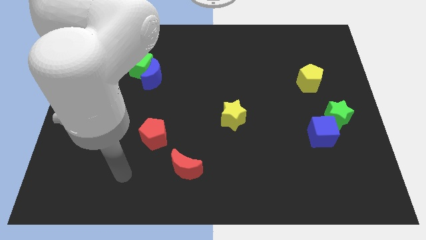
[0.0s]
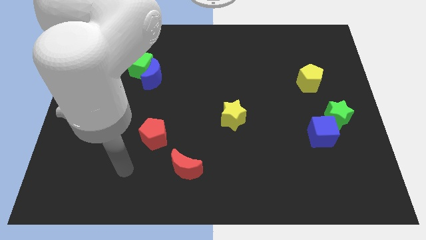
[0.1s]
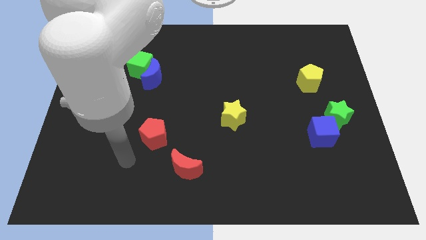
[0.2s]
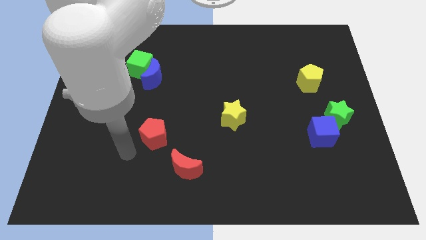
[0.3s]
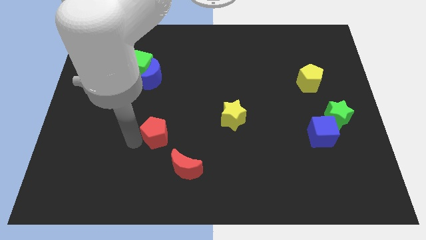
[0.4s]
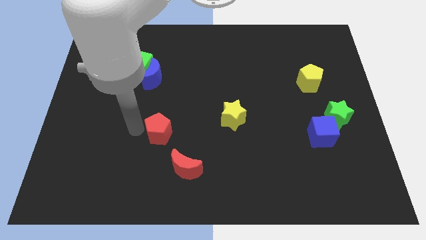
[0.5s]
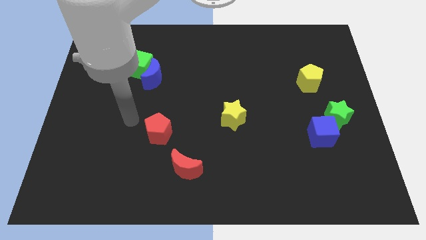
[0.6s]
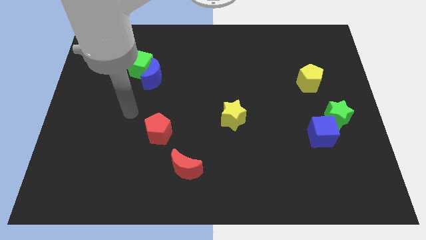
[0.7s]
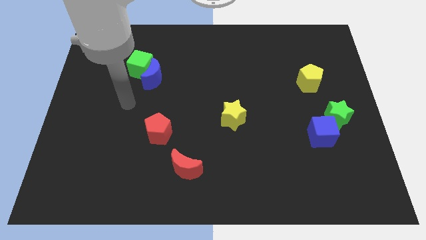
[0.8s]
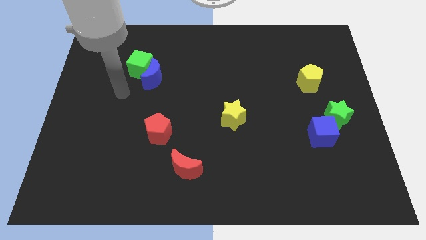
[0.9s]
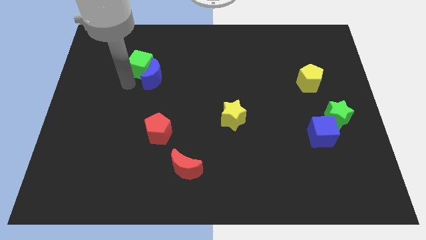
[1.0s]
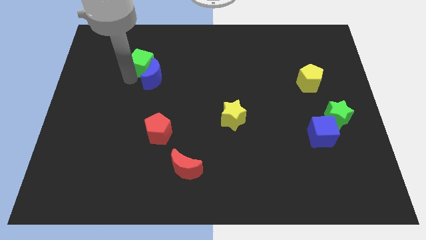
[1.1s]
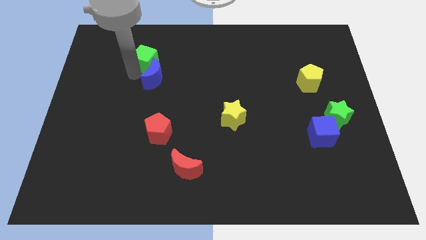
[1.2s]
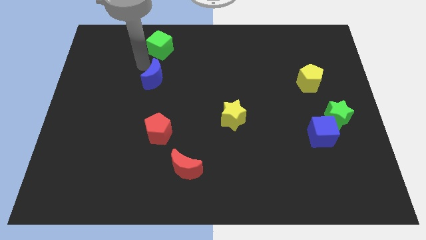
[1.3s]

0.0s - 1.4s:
move the blue moon away from the green cube

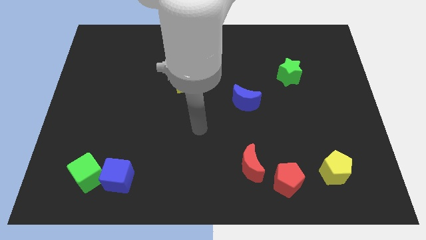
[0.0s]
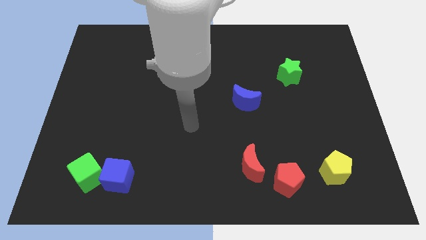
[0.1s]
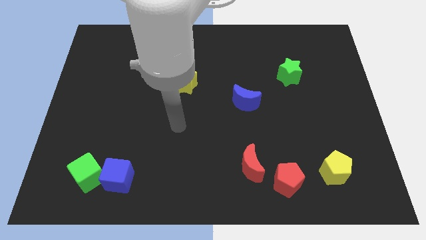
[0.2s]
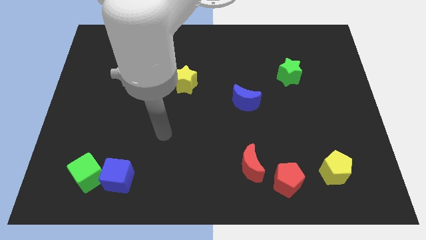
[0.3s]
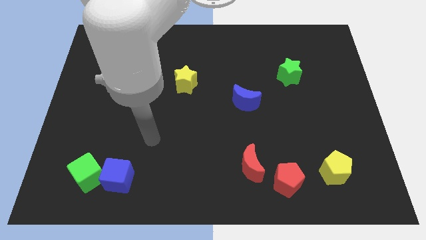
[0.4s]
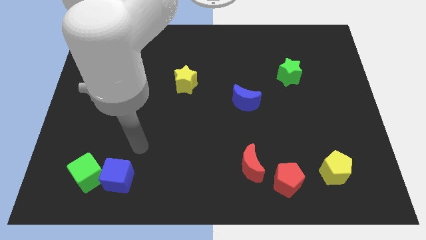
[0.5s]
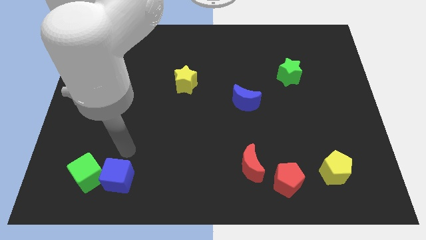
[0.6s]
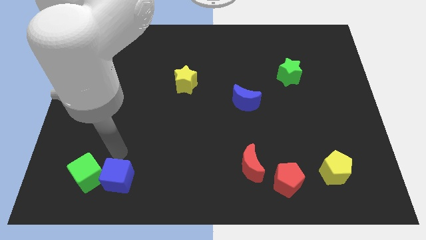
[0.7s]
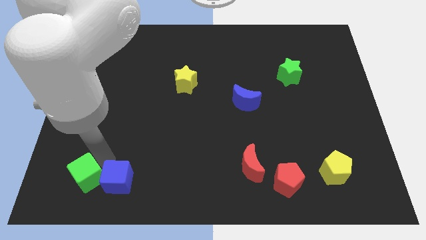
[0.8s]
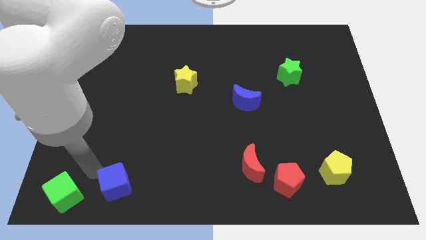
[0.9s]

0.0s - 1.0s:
move the blue cube away from the green cube

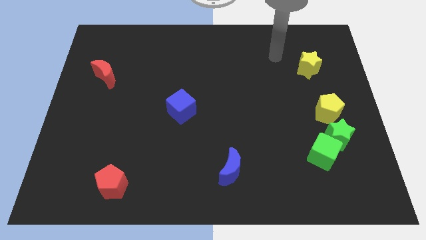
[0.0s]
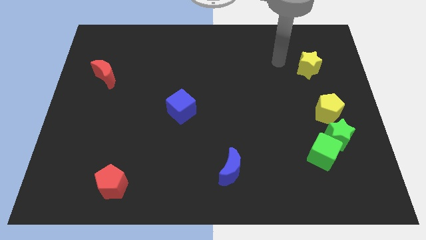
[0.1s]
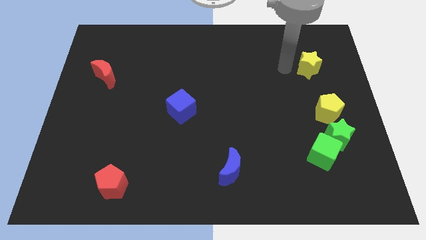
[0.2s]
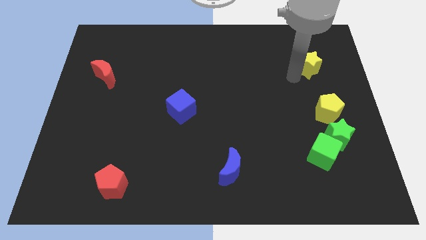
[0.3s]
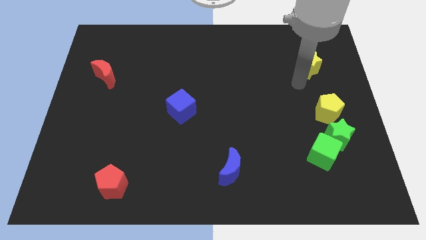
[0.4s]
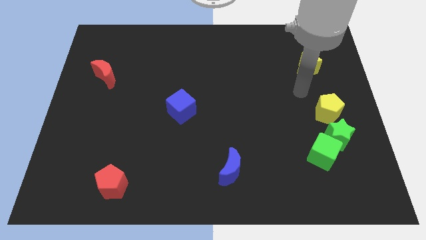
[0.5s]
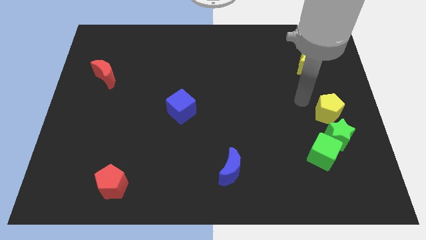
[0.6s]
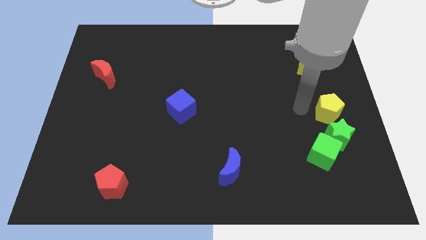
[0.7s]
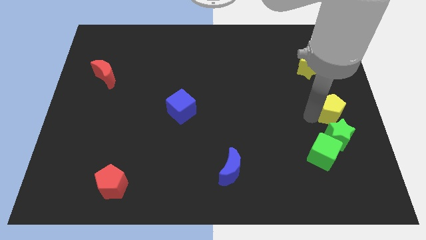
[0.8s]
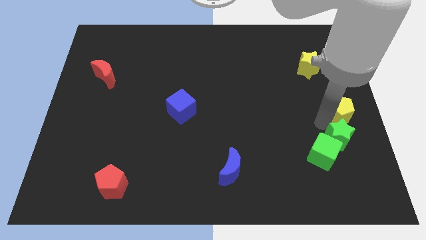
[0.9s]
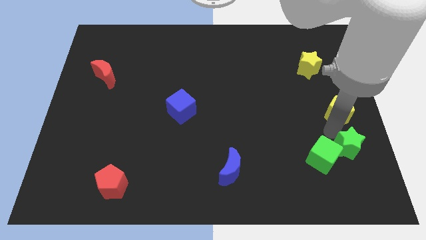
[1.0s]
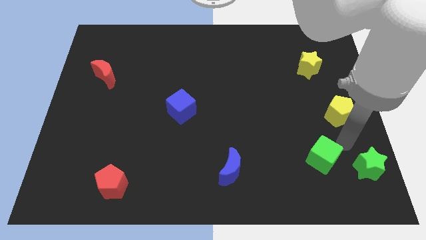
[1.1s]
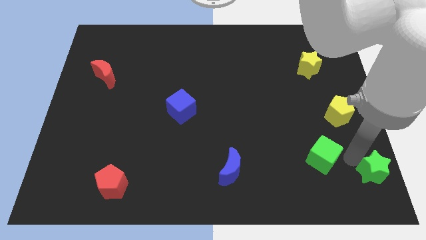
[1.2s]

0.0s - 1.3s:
move the green cube away from the green star

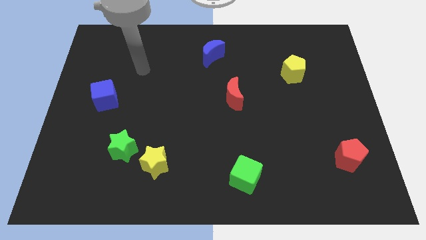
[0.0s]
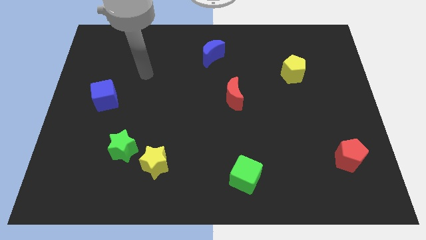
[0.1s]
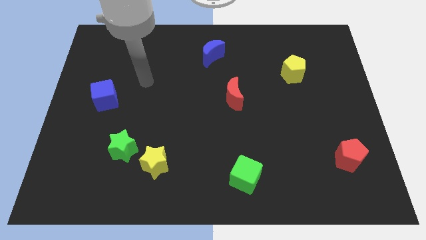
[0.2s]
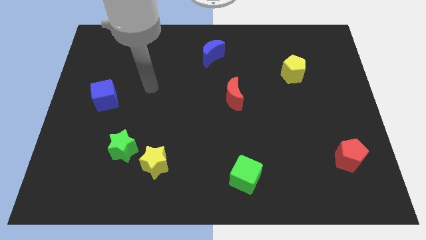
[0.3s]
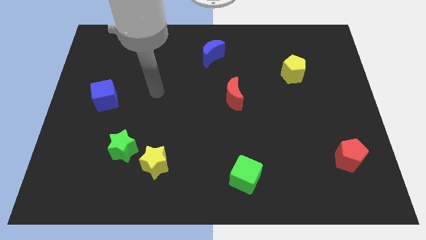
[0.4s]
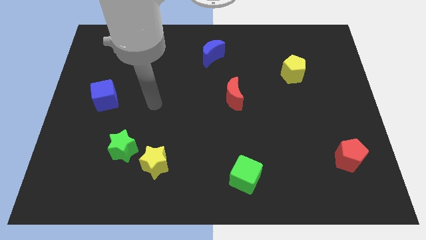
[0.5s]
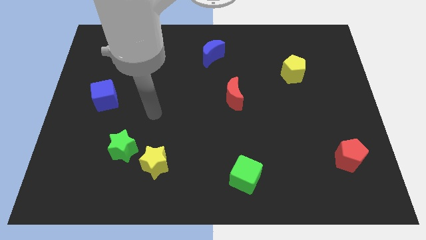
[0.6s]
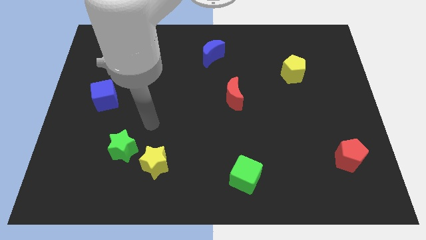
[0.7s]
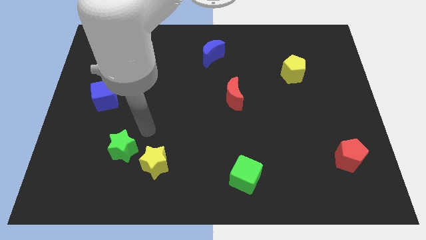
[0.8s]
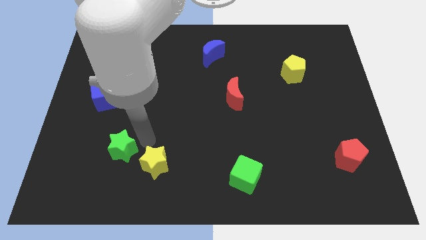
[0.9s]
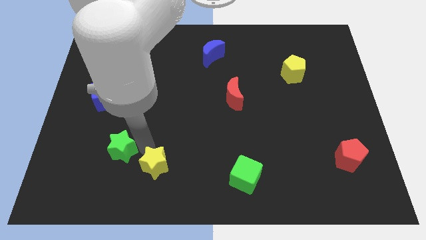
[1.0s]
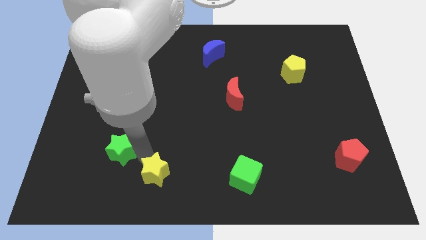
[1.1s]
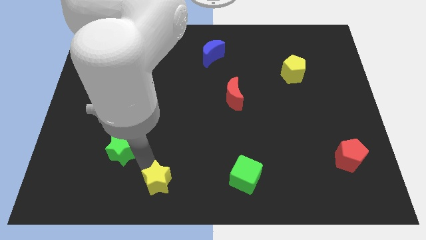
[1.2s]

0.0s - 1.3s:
pull the green star apart from the yellow star

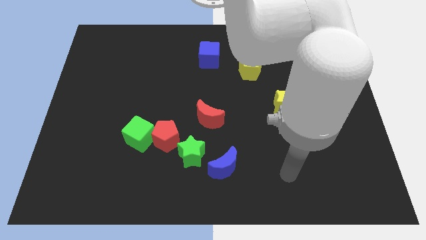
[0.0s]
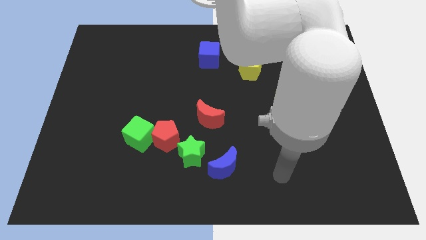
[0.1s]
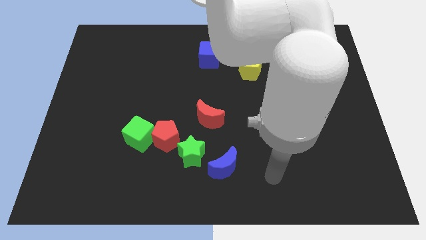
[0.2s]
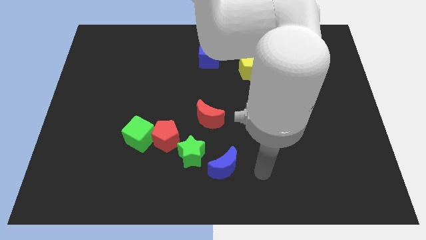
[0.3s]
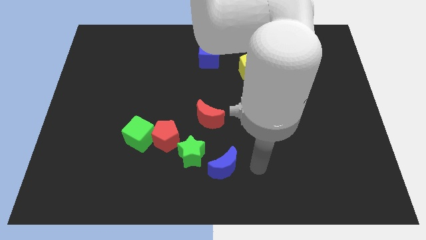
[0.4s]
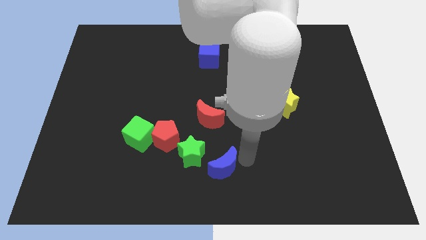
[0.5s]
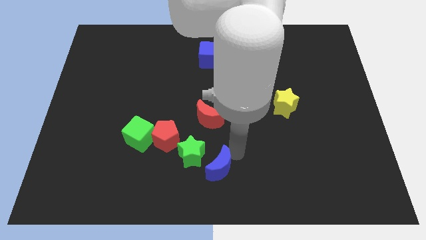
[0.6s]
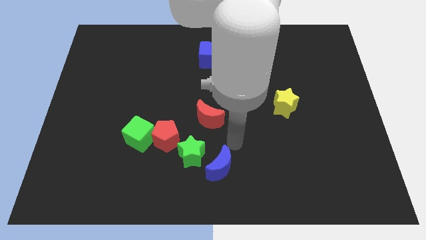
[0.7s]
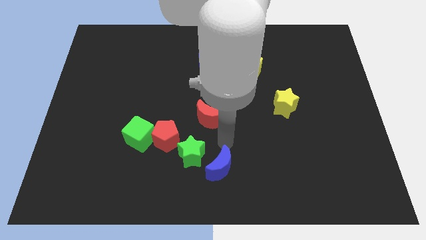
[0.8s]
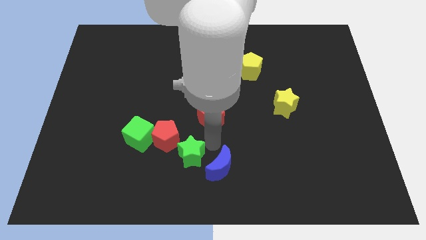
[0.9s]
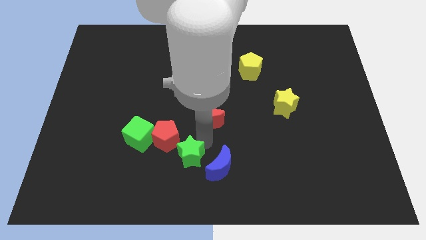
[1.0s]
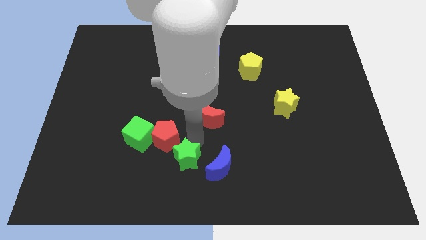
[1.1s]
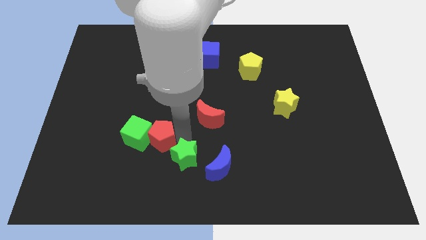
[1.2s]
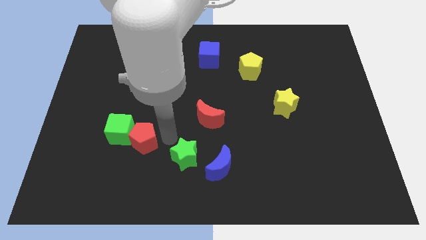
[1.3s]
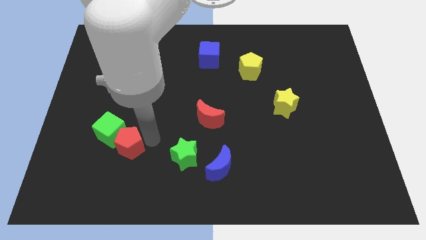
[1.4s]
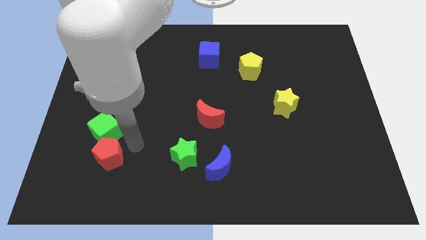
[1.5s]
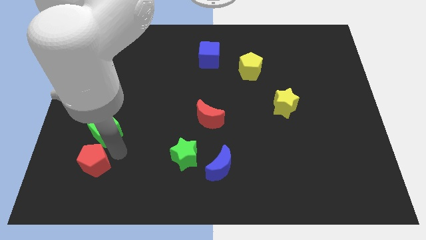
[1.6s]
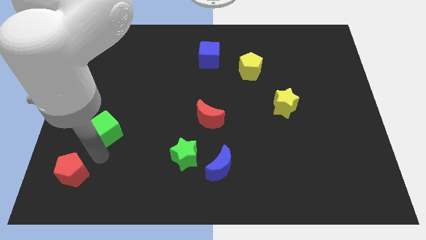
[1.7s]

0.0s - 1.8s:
pull the green cube apart from the red pentagon

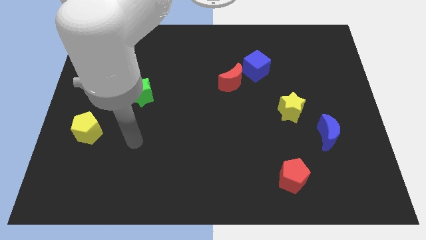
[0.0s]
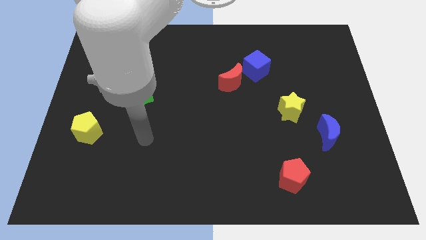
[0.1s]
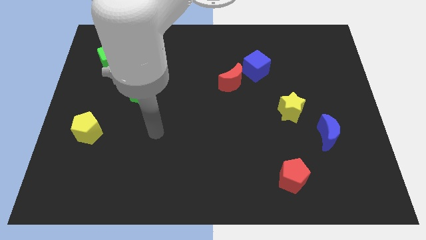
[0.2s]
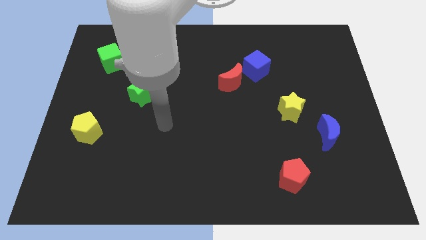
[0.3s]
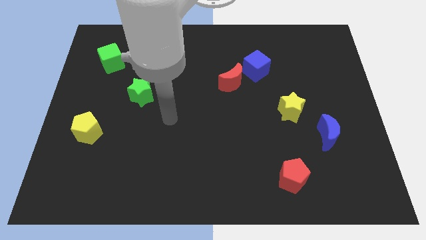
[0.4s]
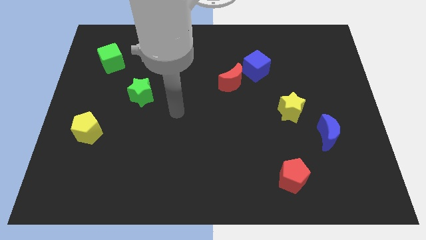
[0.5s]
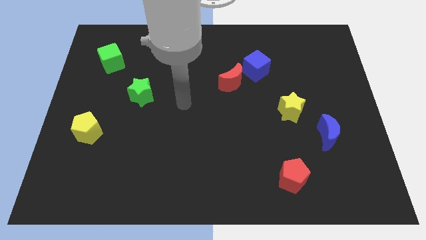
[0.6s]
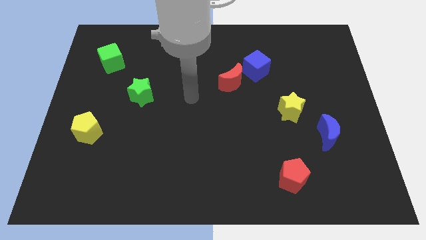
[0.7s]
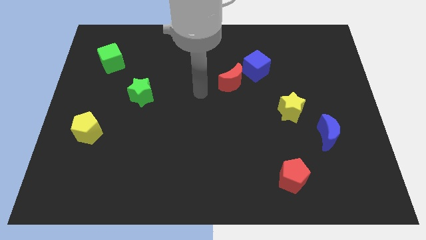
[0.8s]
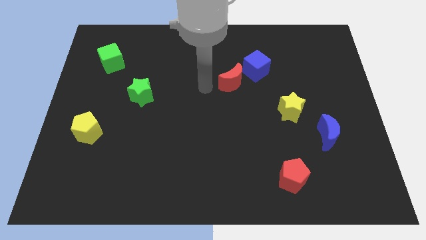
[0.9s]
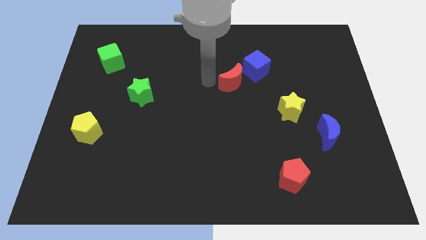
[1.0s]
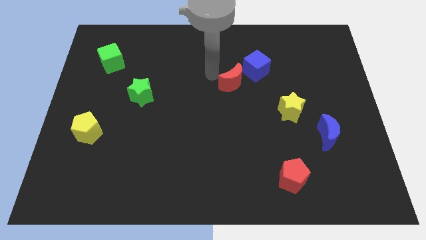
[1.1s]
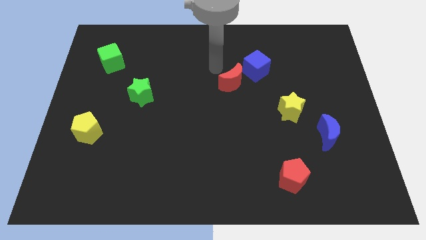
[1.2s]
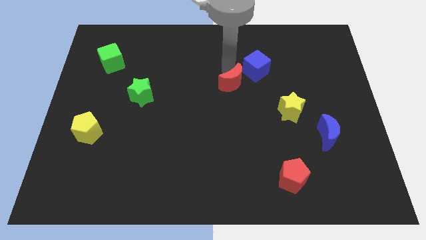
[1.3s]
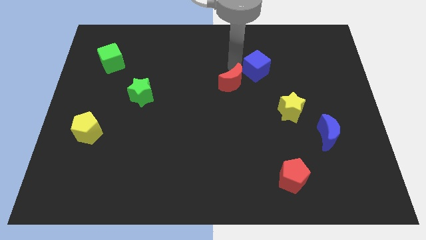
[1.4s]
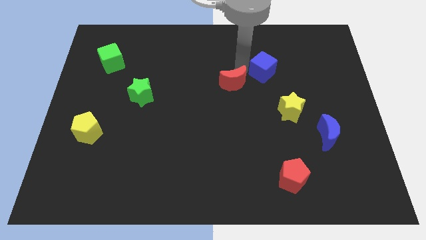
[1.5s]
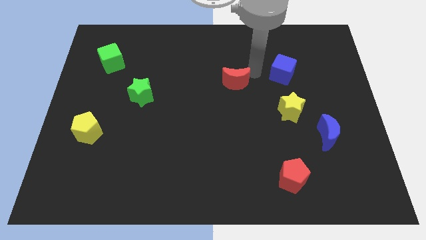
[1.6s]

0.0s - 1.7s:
pull the red moon apart from the blue cube

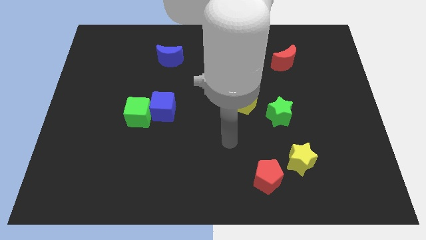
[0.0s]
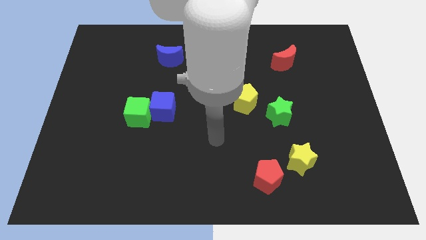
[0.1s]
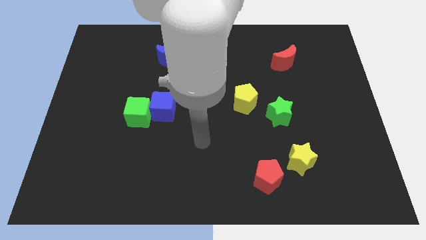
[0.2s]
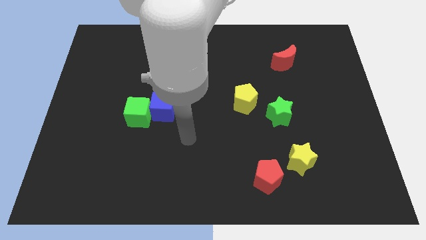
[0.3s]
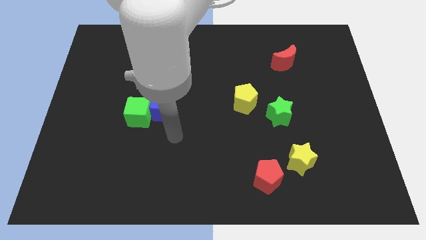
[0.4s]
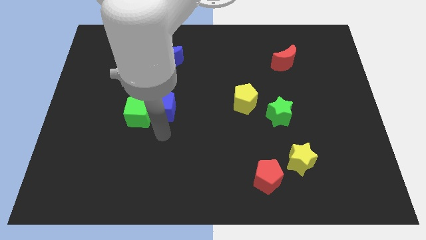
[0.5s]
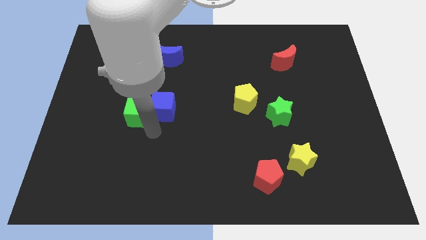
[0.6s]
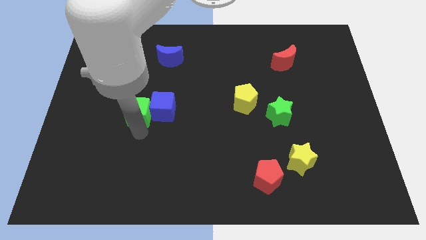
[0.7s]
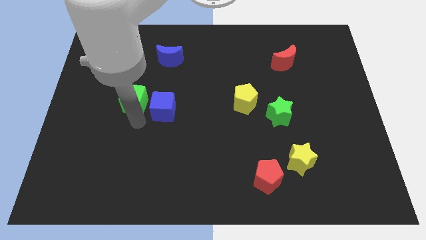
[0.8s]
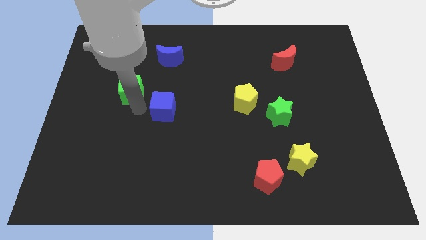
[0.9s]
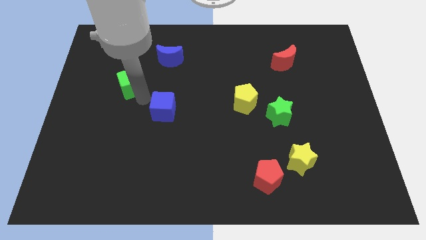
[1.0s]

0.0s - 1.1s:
pull the blue cube apart from the green cube
